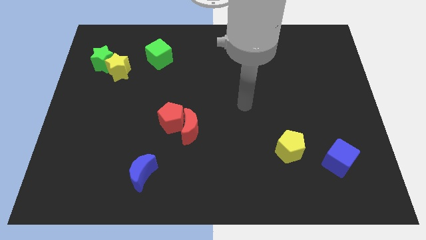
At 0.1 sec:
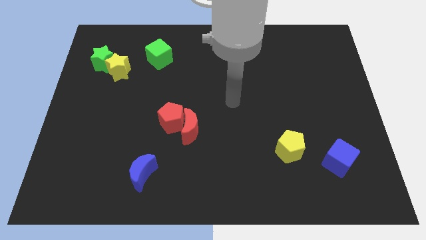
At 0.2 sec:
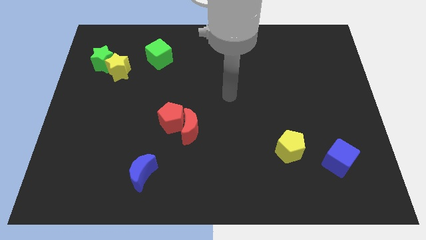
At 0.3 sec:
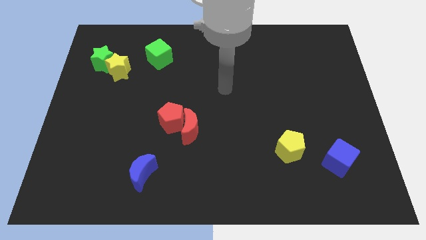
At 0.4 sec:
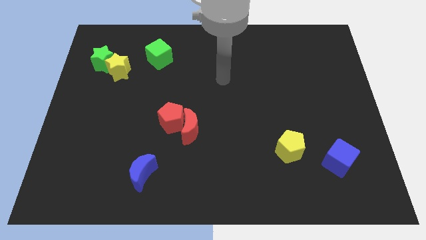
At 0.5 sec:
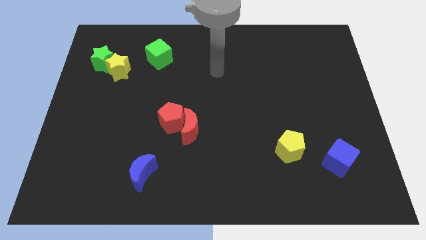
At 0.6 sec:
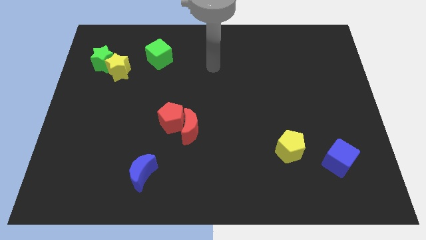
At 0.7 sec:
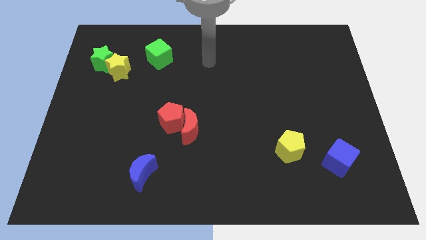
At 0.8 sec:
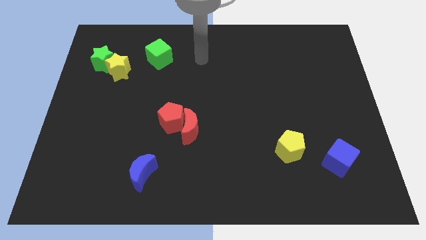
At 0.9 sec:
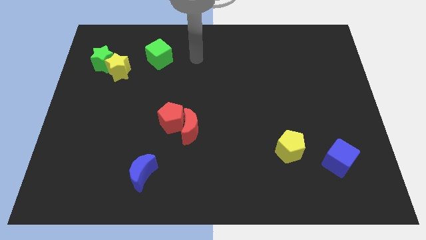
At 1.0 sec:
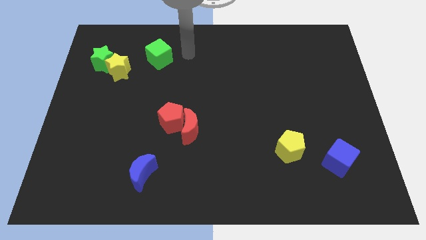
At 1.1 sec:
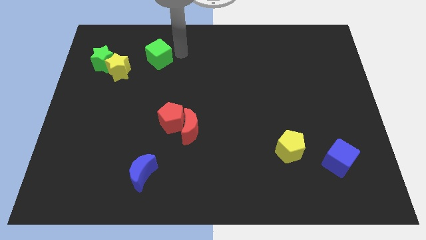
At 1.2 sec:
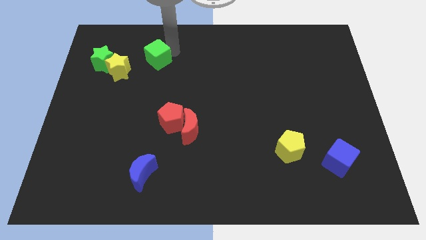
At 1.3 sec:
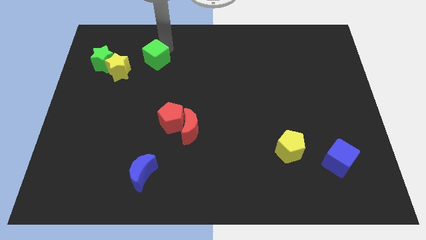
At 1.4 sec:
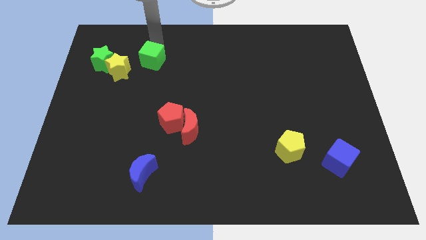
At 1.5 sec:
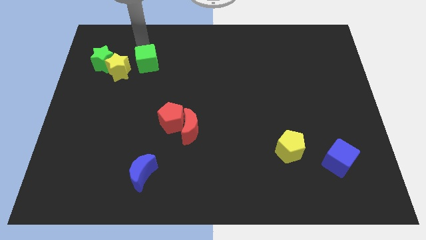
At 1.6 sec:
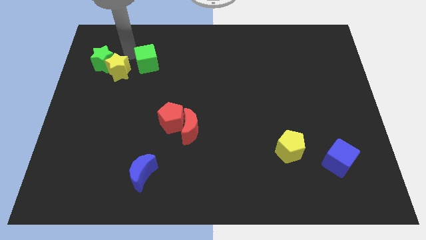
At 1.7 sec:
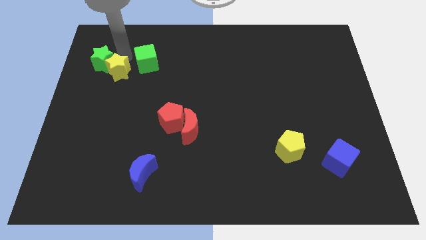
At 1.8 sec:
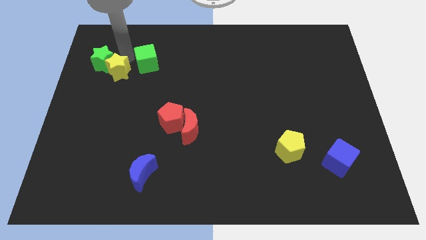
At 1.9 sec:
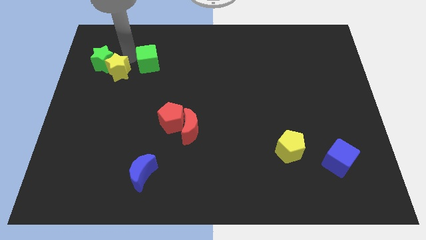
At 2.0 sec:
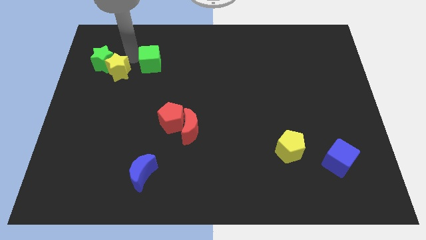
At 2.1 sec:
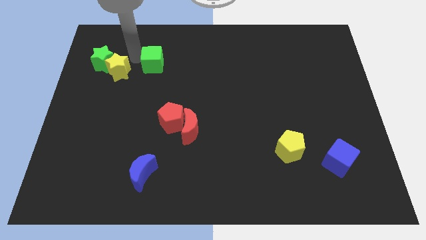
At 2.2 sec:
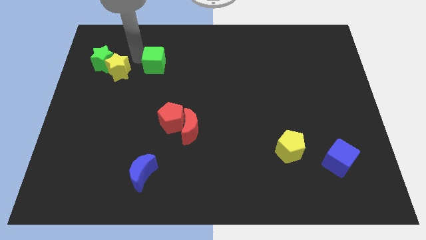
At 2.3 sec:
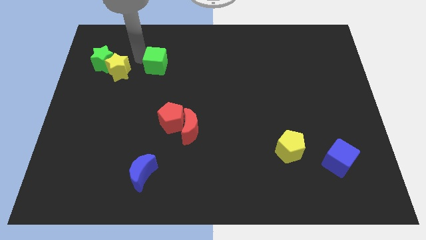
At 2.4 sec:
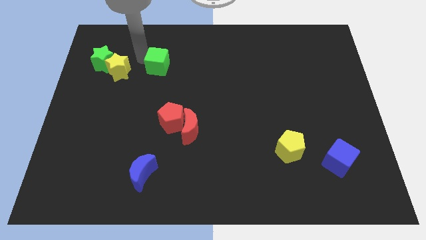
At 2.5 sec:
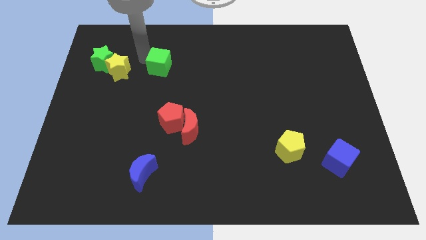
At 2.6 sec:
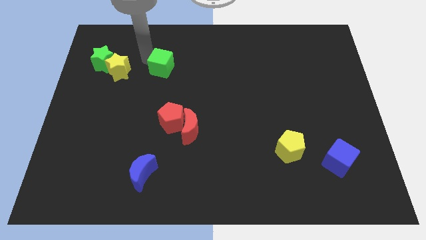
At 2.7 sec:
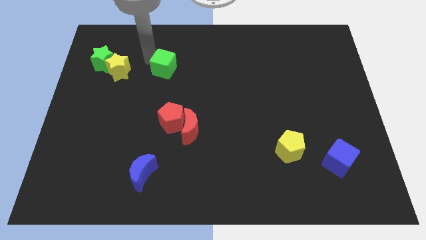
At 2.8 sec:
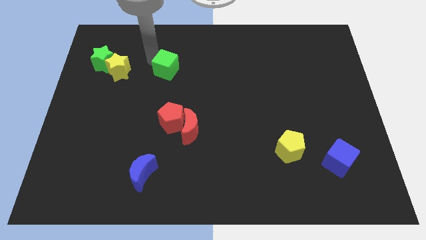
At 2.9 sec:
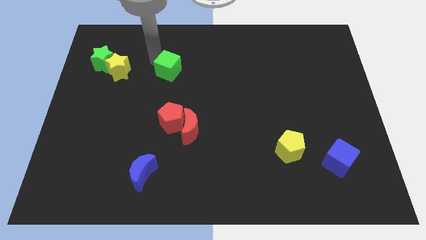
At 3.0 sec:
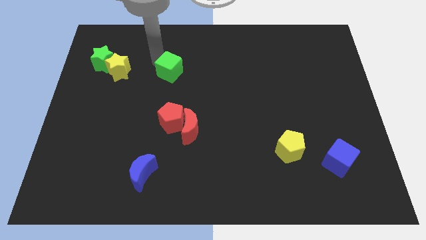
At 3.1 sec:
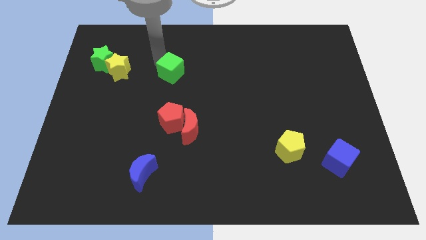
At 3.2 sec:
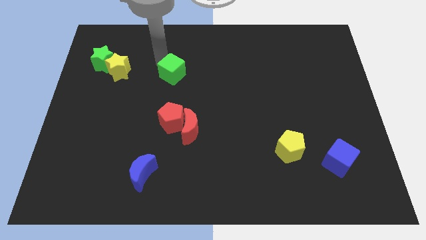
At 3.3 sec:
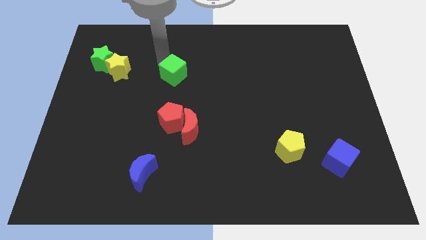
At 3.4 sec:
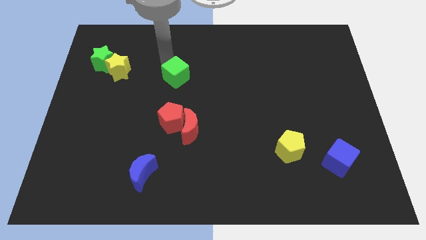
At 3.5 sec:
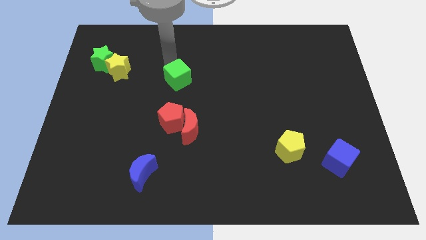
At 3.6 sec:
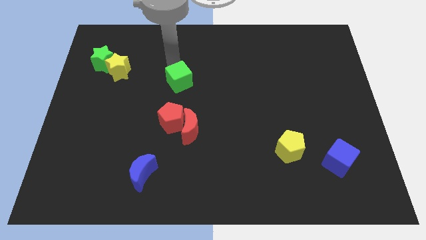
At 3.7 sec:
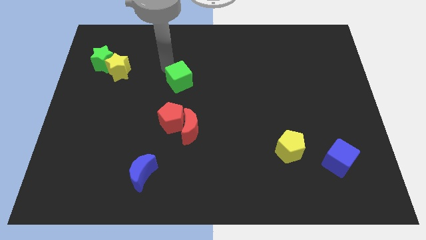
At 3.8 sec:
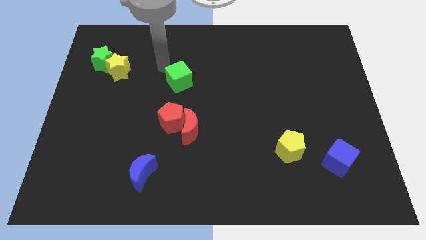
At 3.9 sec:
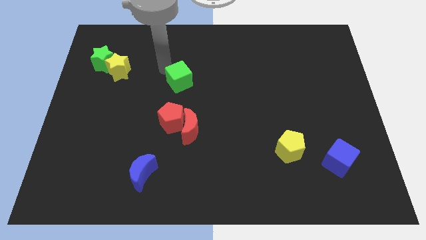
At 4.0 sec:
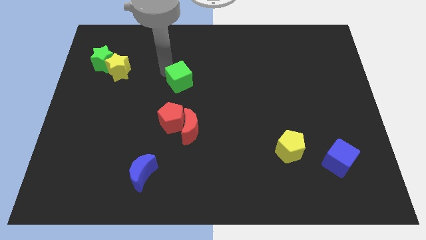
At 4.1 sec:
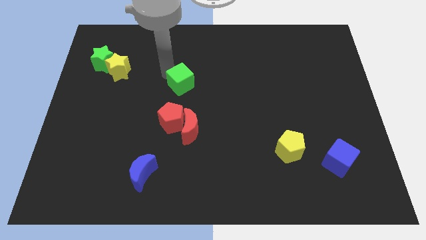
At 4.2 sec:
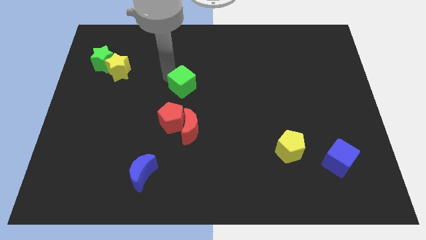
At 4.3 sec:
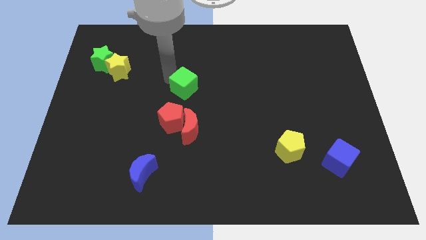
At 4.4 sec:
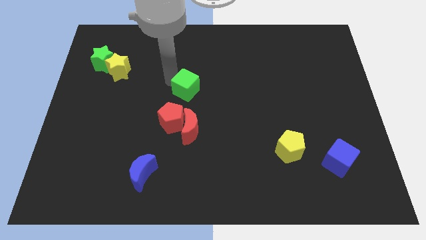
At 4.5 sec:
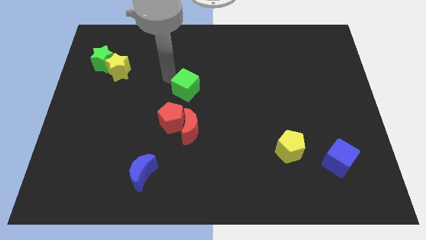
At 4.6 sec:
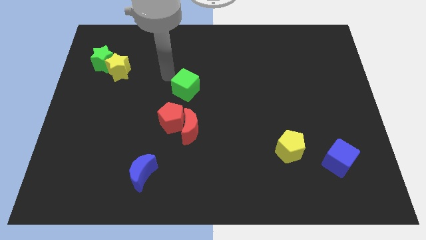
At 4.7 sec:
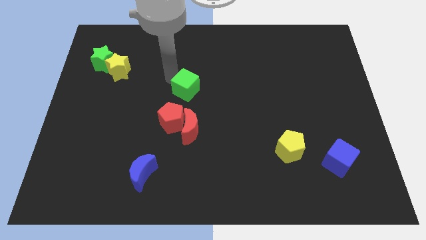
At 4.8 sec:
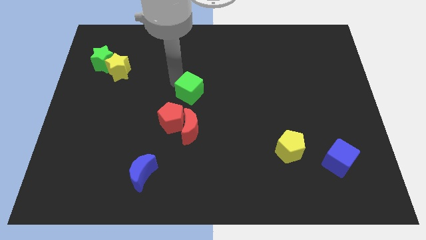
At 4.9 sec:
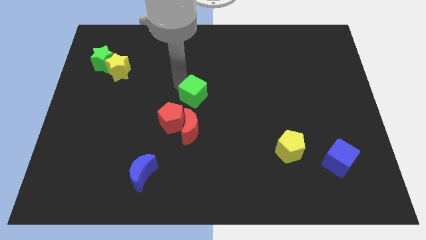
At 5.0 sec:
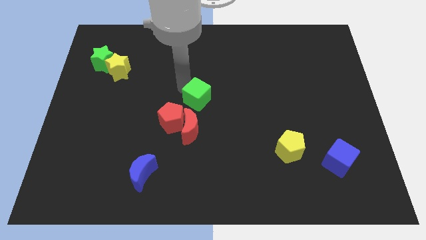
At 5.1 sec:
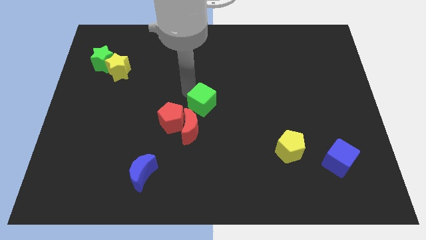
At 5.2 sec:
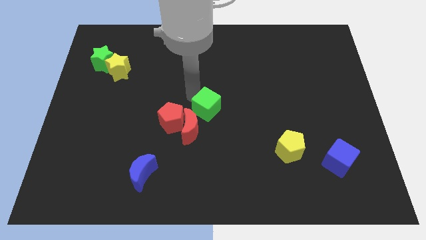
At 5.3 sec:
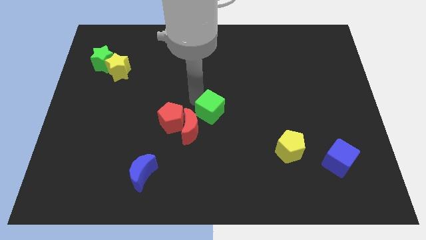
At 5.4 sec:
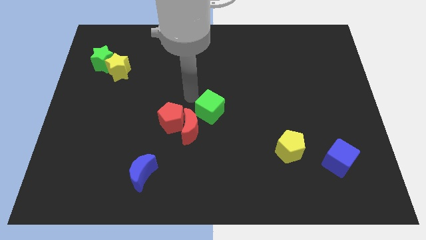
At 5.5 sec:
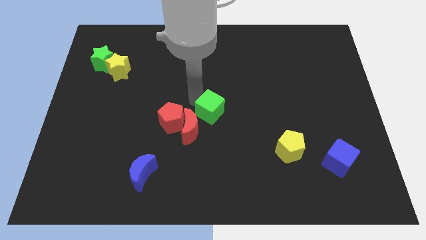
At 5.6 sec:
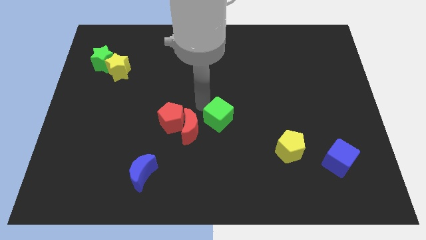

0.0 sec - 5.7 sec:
push the green cube right of the red moon
